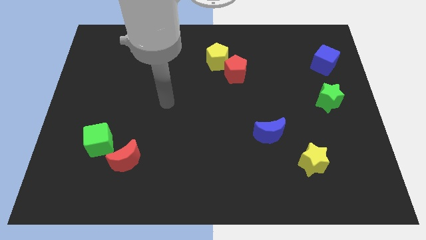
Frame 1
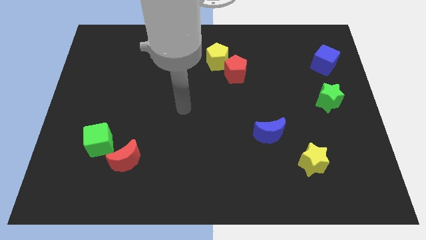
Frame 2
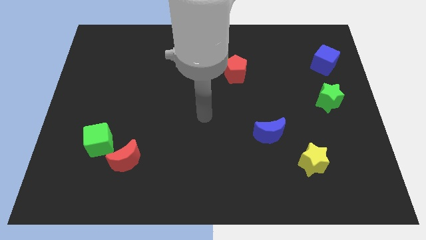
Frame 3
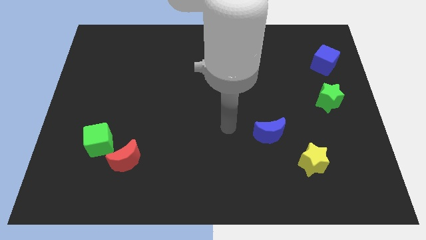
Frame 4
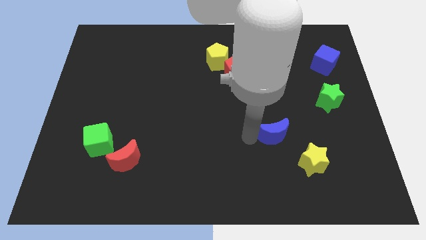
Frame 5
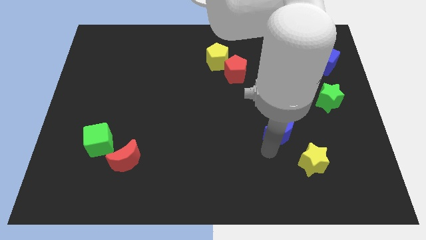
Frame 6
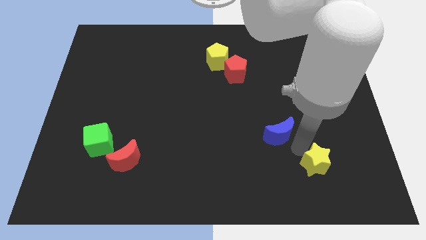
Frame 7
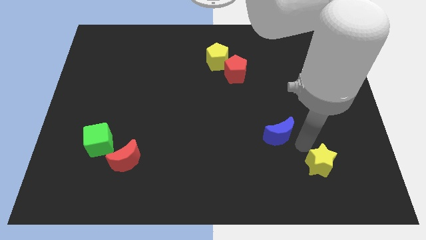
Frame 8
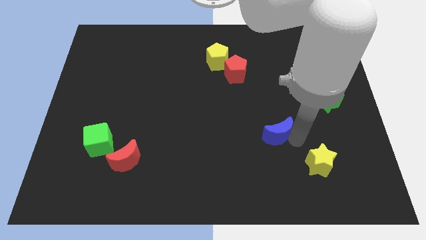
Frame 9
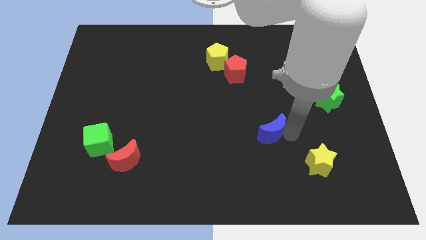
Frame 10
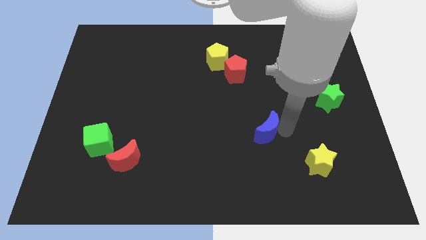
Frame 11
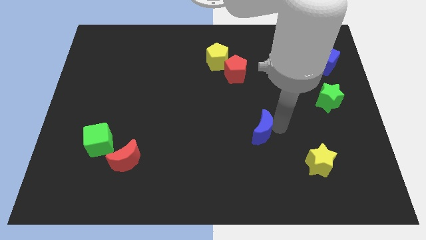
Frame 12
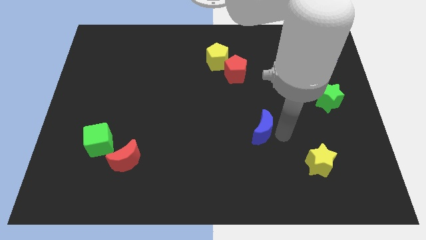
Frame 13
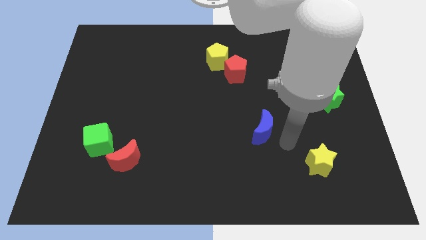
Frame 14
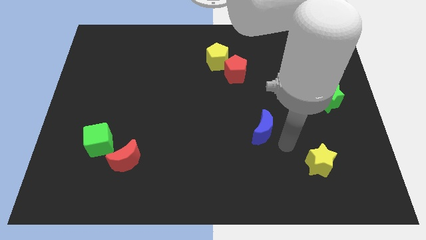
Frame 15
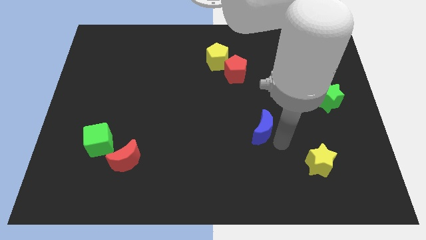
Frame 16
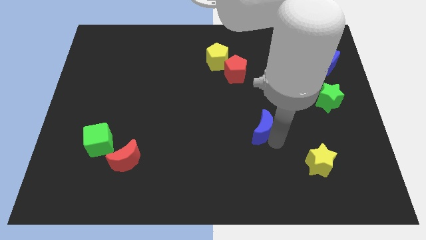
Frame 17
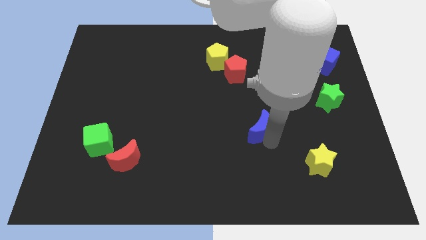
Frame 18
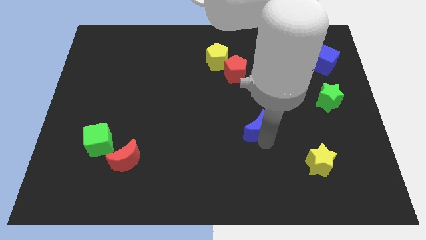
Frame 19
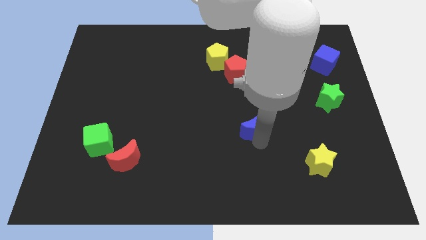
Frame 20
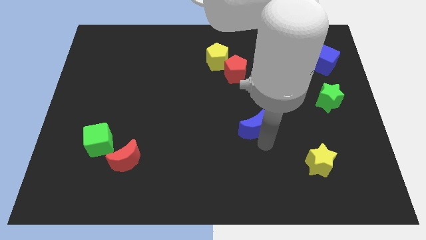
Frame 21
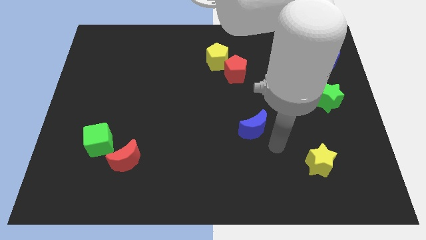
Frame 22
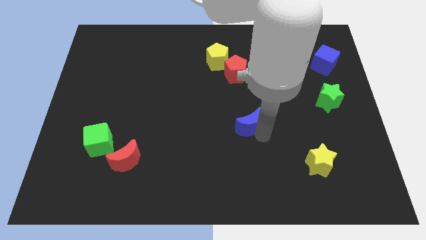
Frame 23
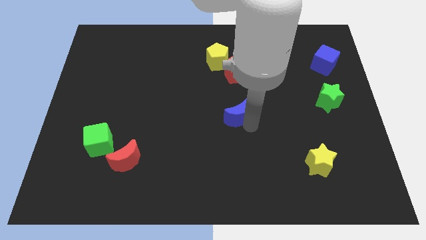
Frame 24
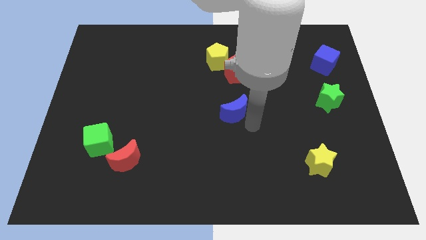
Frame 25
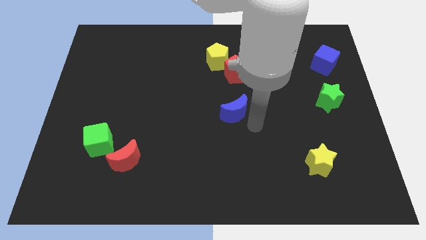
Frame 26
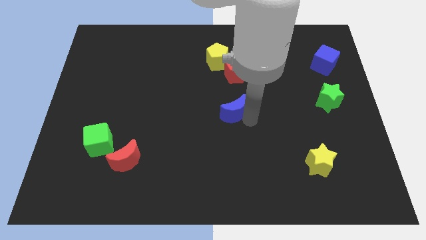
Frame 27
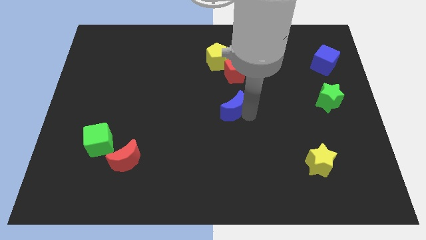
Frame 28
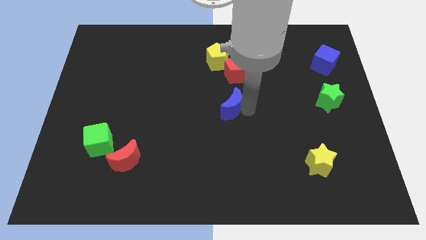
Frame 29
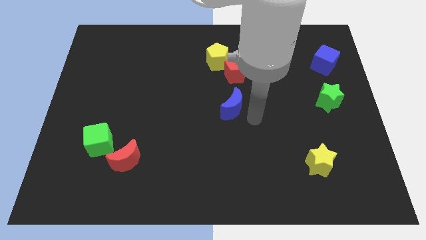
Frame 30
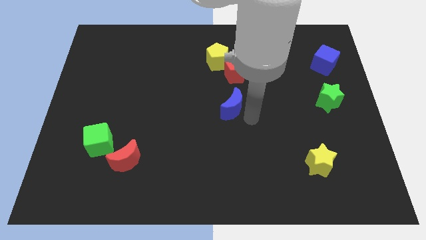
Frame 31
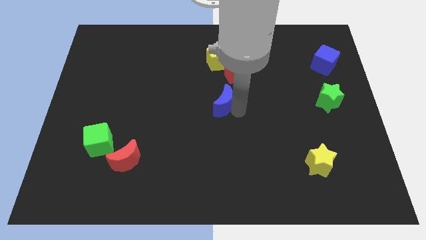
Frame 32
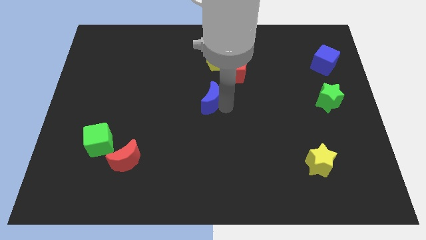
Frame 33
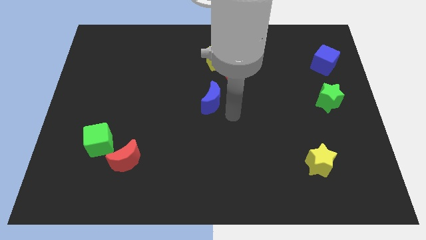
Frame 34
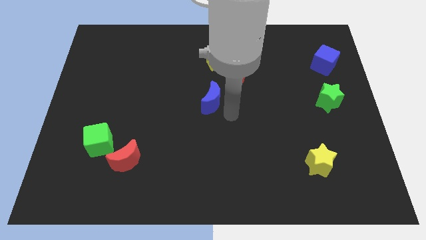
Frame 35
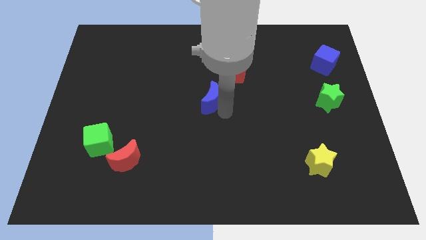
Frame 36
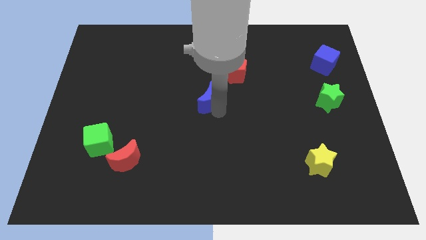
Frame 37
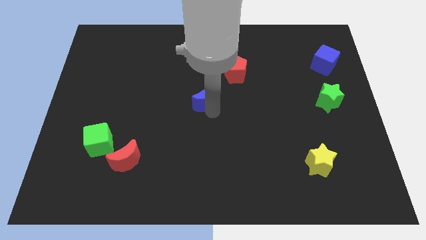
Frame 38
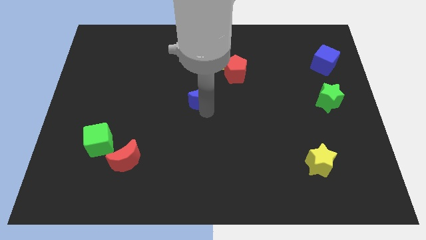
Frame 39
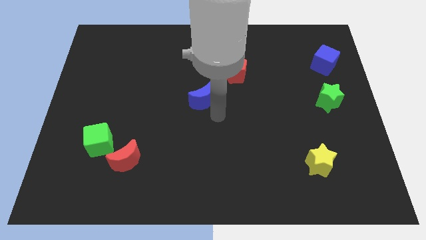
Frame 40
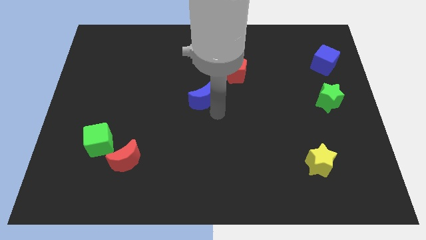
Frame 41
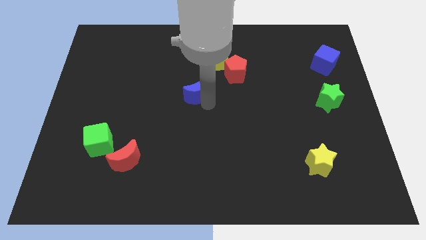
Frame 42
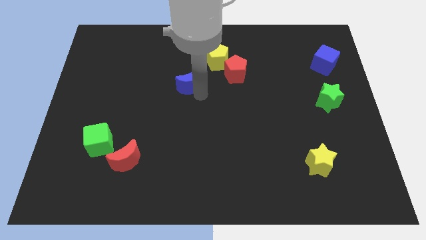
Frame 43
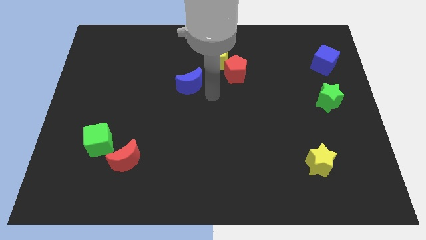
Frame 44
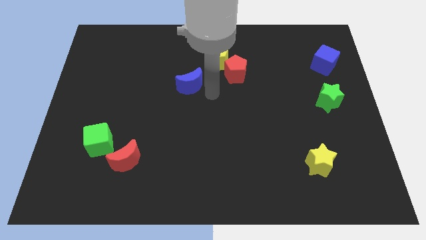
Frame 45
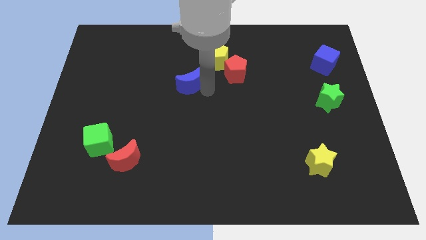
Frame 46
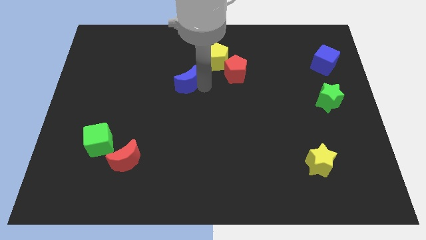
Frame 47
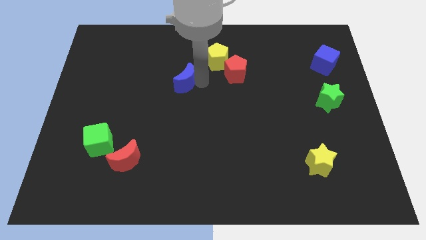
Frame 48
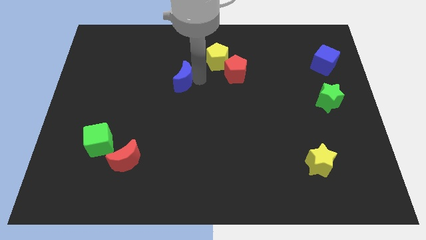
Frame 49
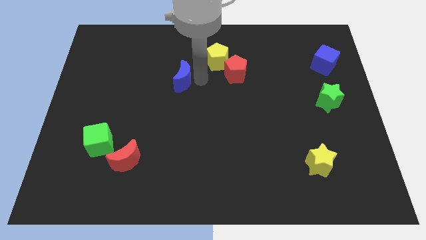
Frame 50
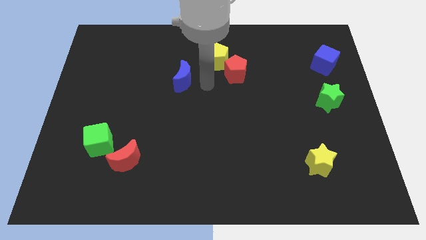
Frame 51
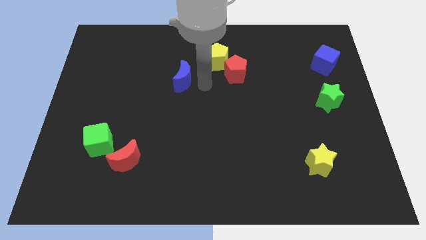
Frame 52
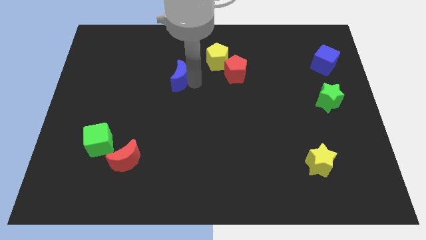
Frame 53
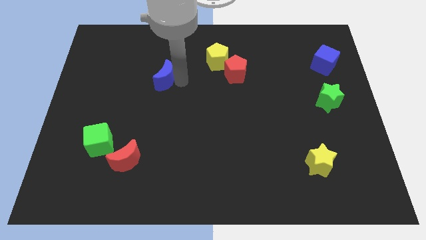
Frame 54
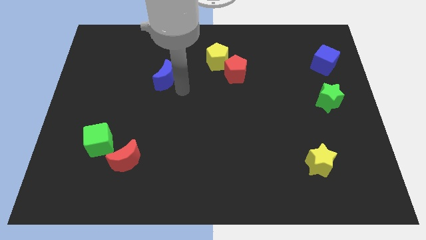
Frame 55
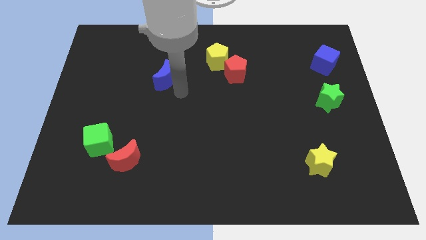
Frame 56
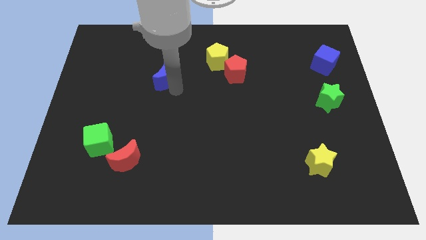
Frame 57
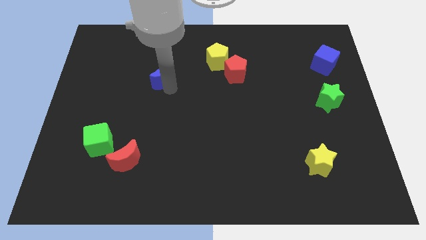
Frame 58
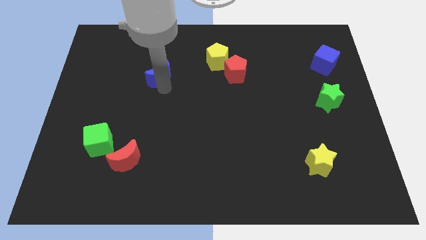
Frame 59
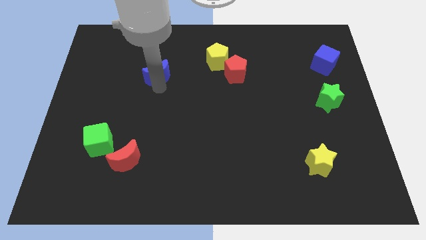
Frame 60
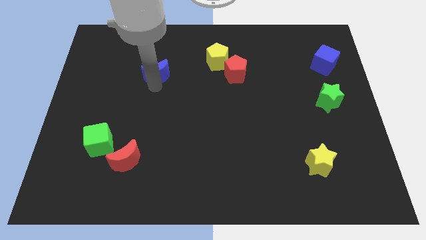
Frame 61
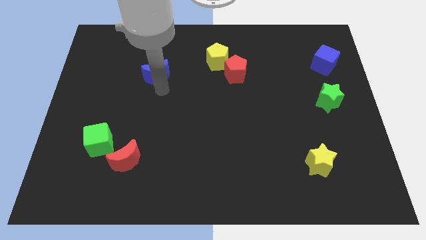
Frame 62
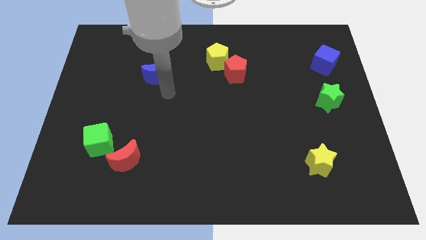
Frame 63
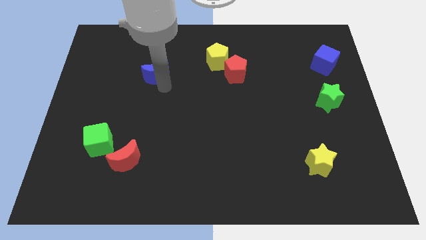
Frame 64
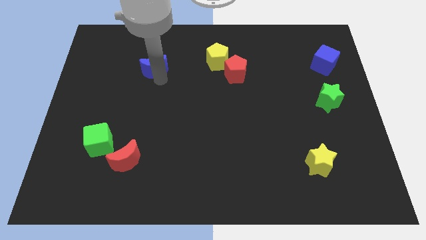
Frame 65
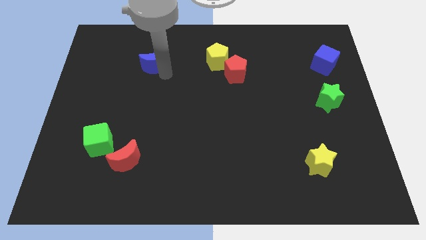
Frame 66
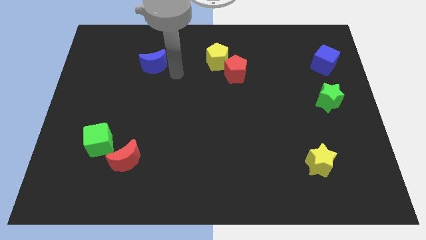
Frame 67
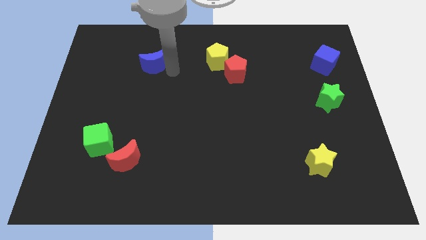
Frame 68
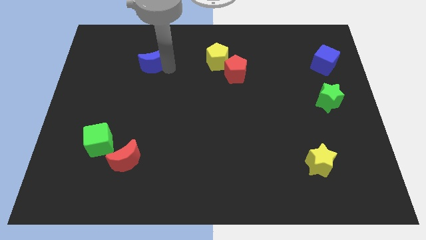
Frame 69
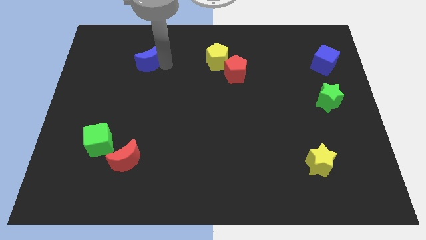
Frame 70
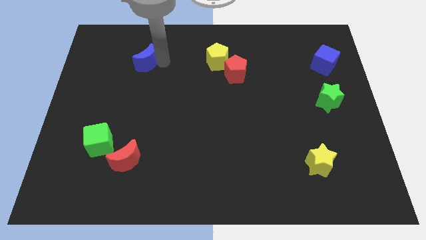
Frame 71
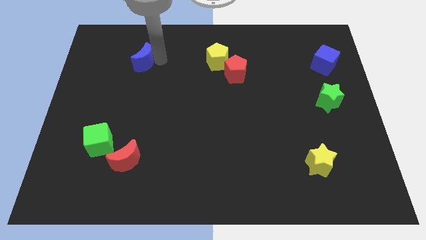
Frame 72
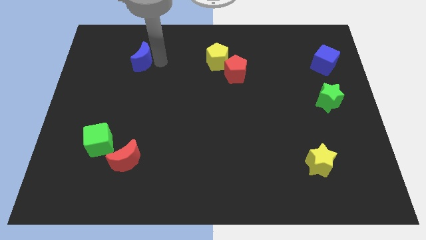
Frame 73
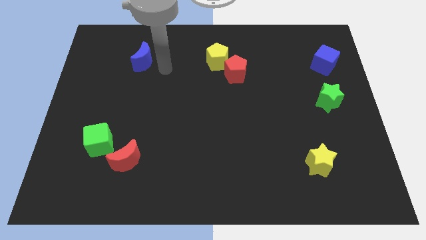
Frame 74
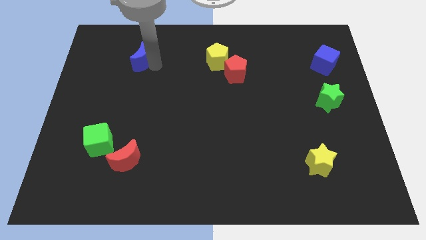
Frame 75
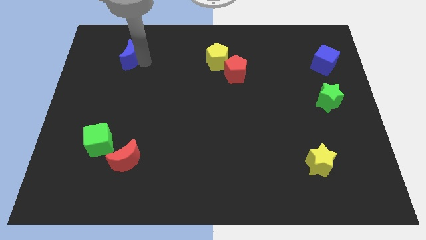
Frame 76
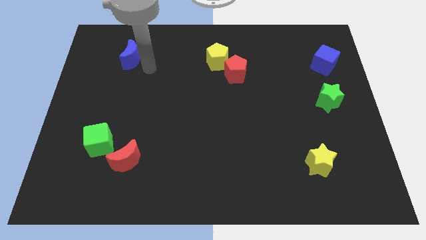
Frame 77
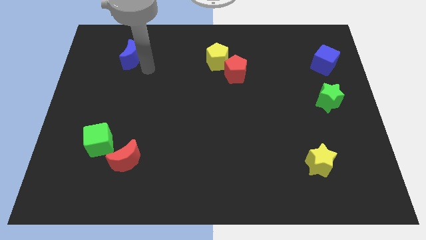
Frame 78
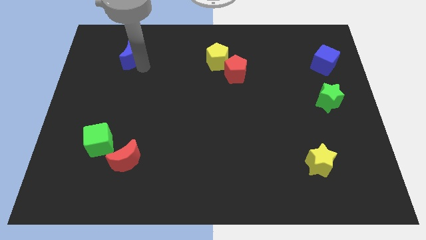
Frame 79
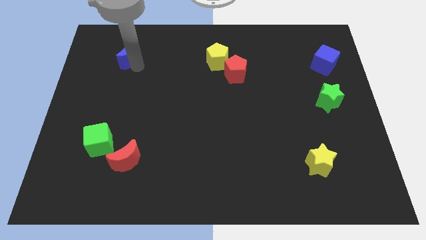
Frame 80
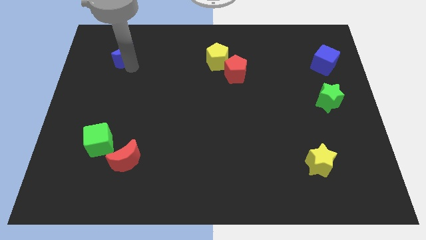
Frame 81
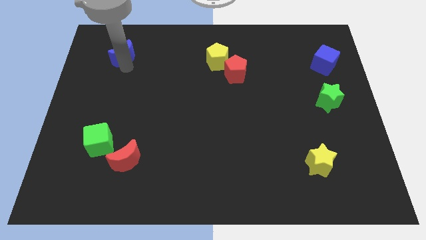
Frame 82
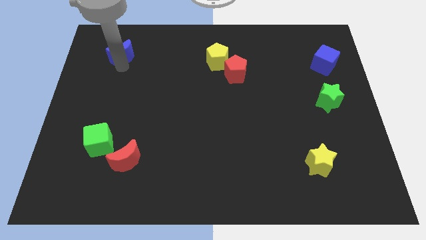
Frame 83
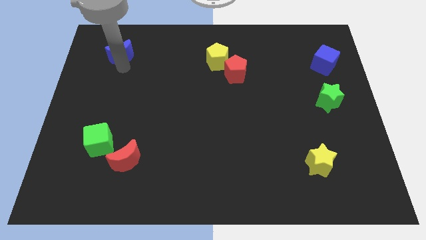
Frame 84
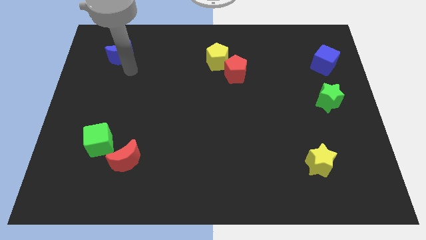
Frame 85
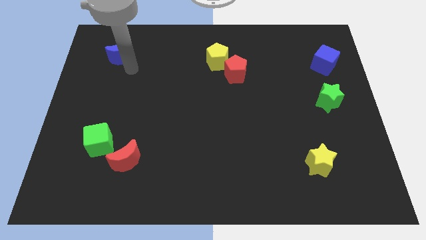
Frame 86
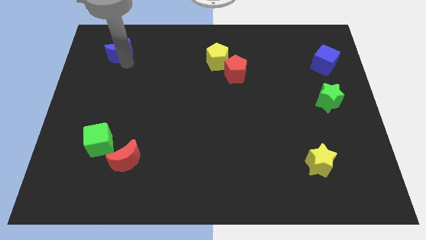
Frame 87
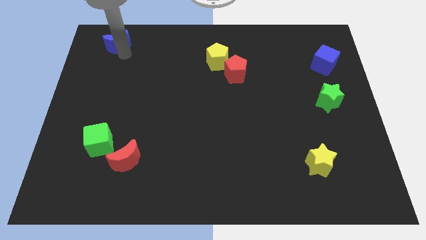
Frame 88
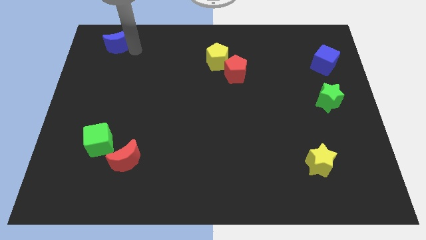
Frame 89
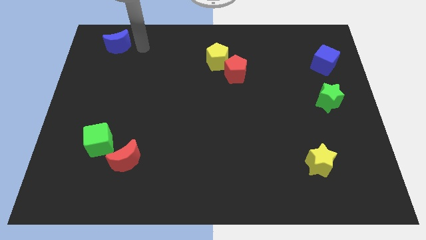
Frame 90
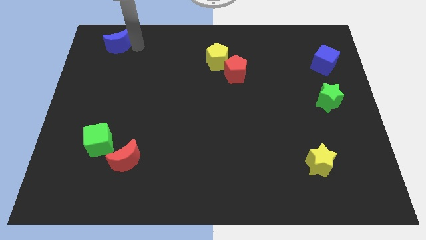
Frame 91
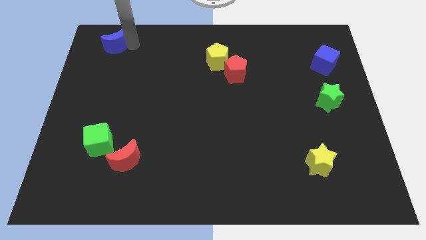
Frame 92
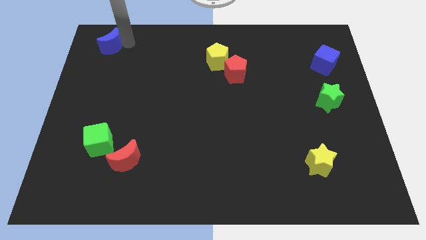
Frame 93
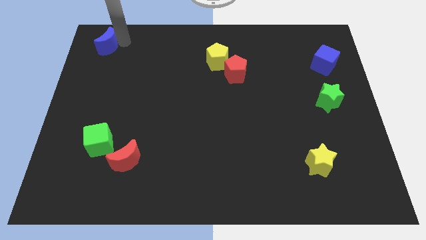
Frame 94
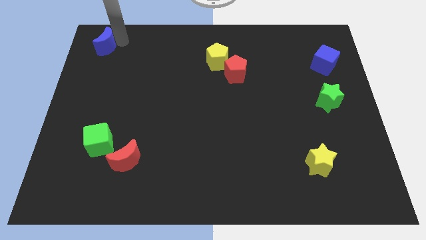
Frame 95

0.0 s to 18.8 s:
slide the blue moon to the upper left corner
